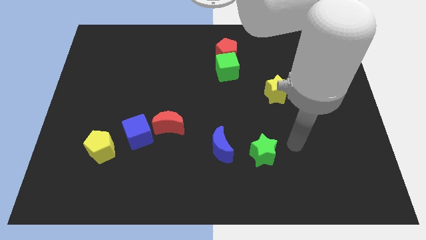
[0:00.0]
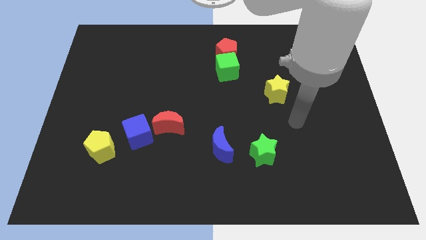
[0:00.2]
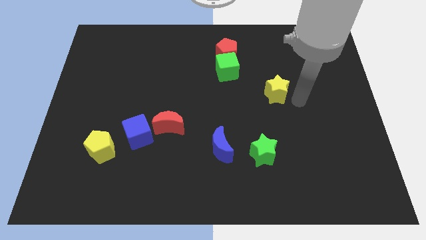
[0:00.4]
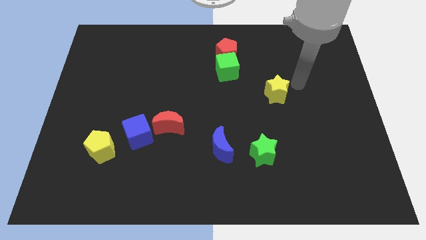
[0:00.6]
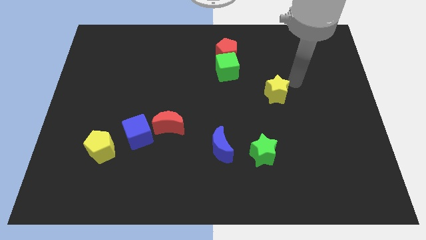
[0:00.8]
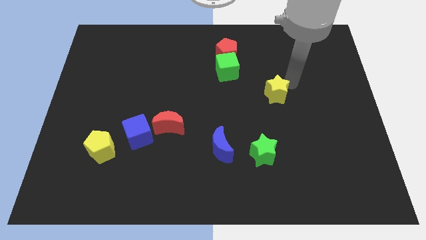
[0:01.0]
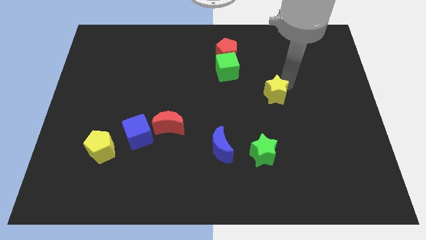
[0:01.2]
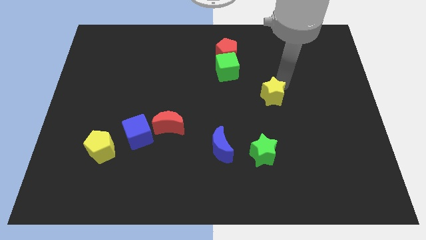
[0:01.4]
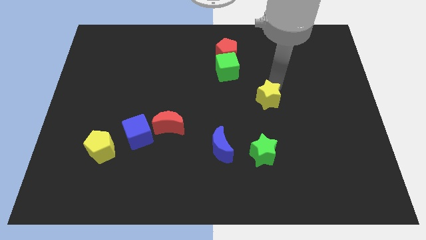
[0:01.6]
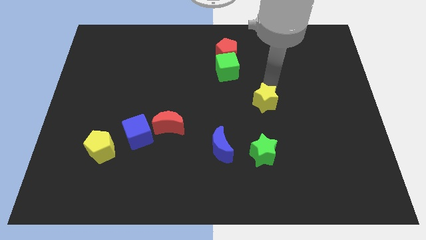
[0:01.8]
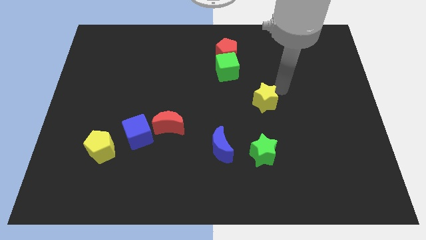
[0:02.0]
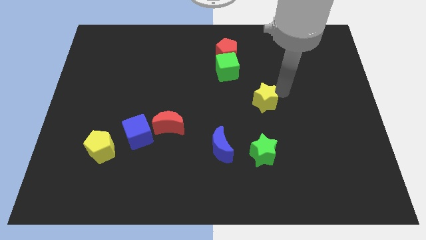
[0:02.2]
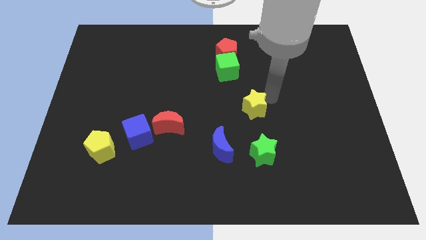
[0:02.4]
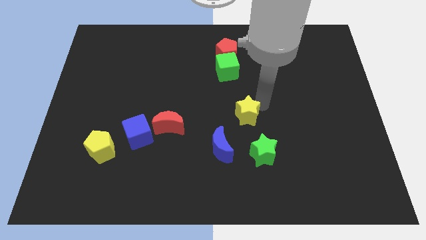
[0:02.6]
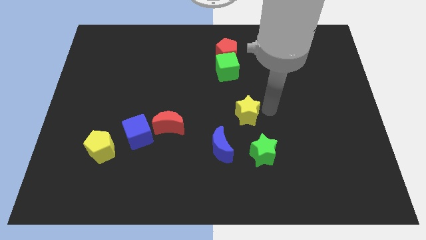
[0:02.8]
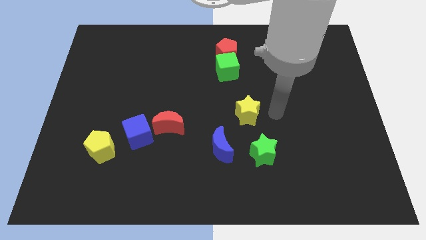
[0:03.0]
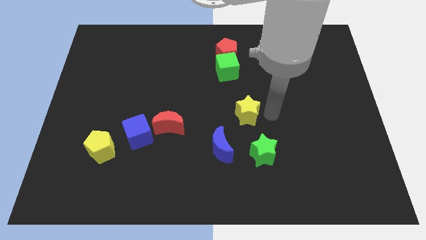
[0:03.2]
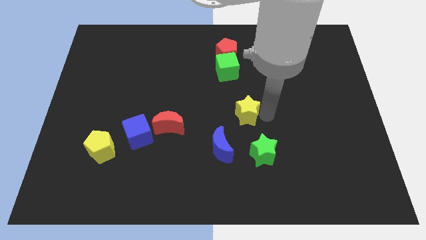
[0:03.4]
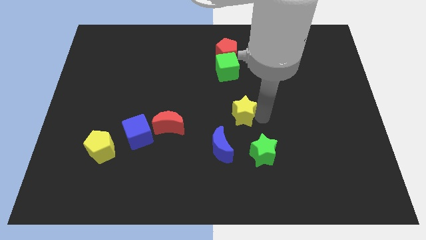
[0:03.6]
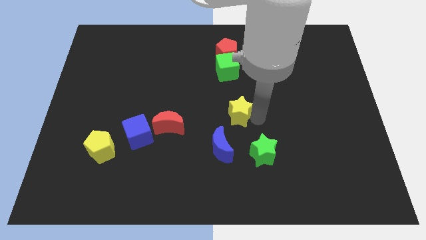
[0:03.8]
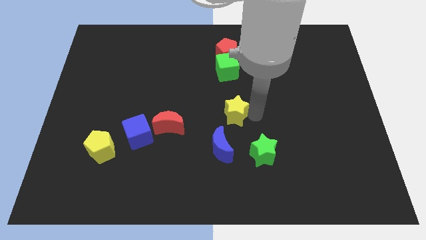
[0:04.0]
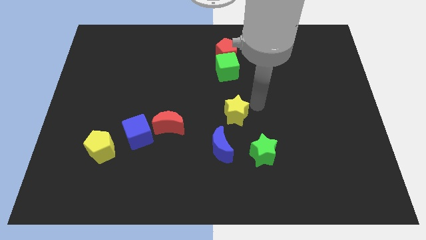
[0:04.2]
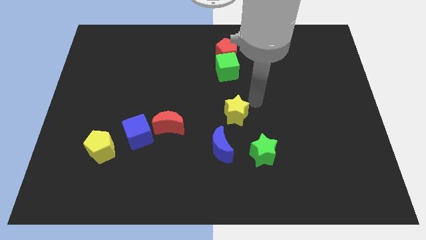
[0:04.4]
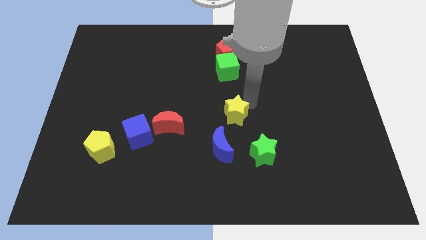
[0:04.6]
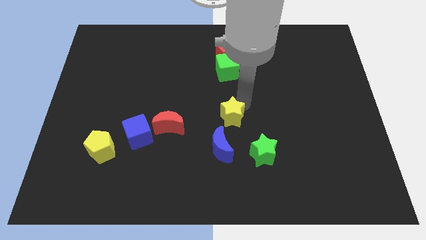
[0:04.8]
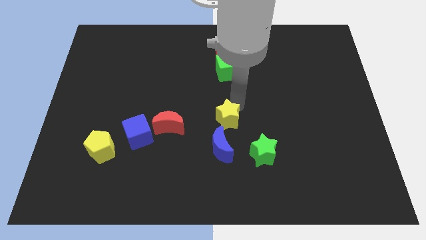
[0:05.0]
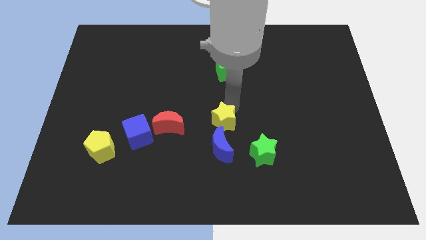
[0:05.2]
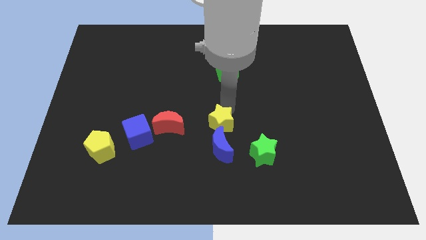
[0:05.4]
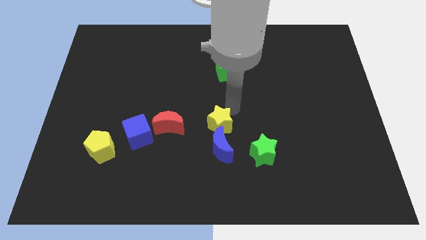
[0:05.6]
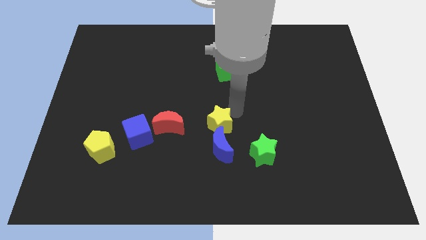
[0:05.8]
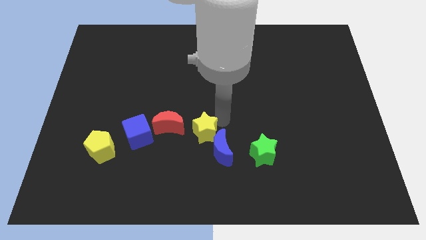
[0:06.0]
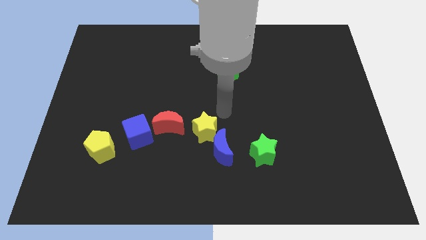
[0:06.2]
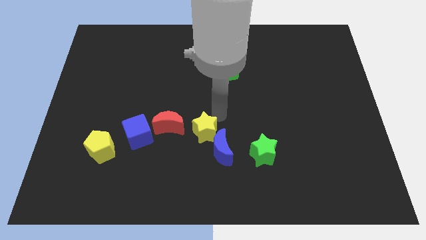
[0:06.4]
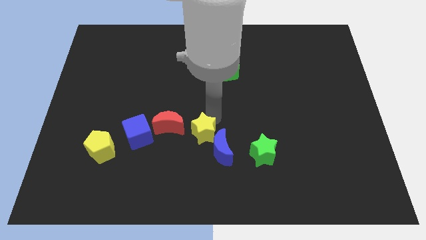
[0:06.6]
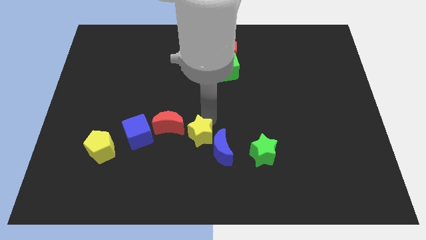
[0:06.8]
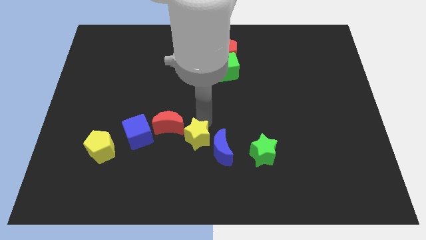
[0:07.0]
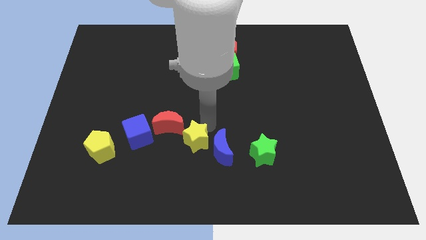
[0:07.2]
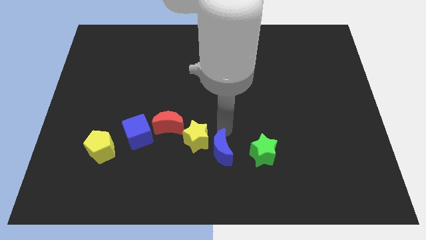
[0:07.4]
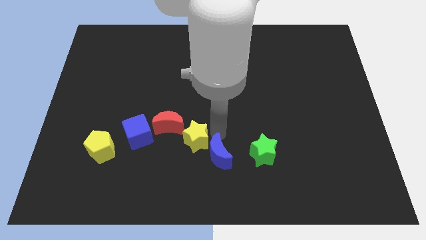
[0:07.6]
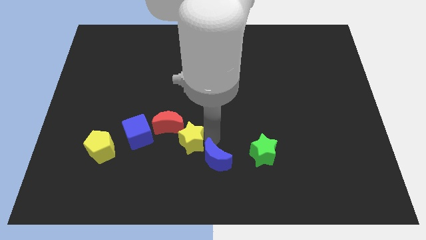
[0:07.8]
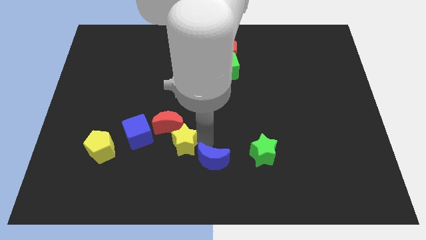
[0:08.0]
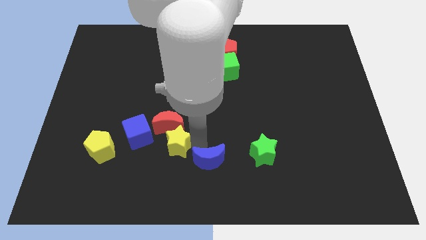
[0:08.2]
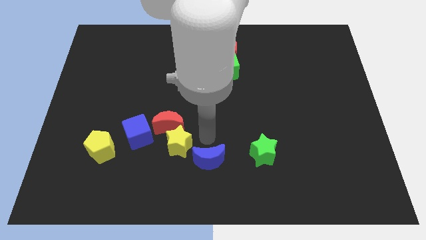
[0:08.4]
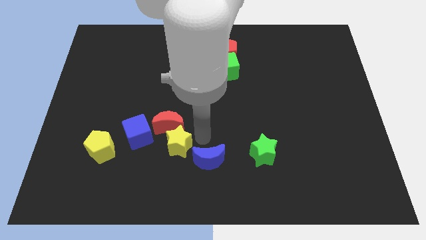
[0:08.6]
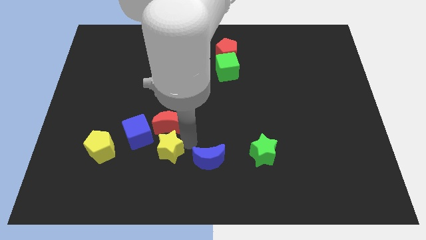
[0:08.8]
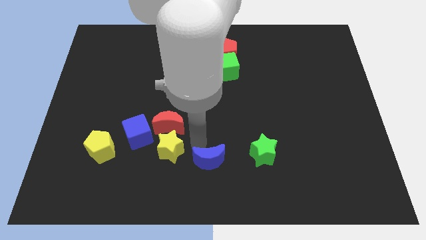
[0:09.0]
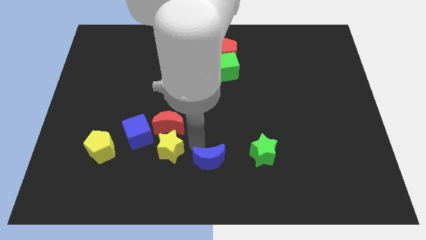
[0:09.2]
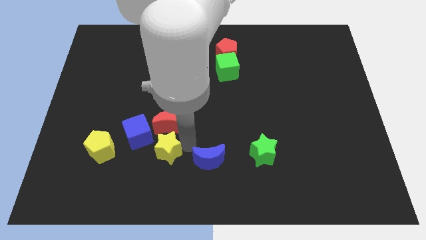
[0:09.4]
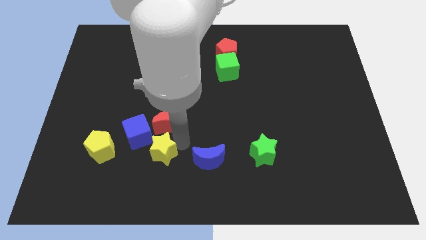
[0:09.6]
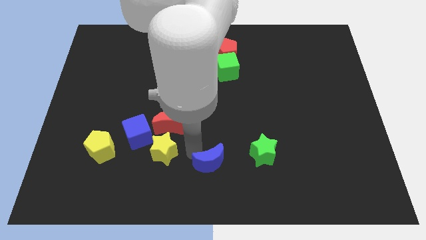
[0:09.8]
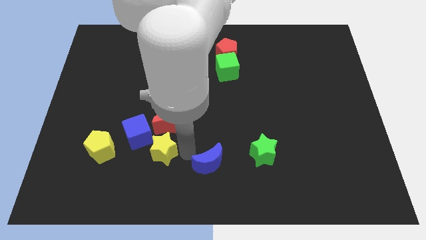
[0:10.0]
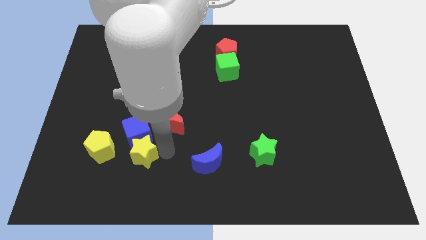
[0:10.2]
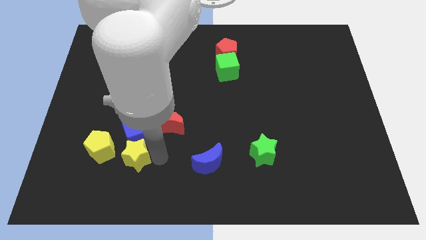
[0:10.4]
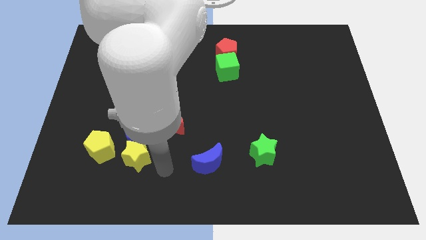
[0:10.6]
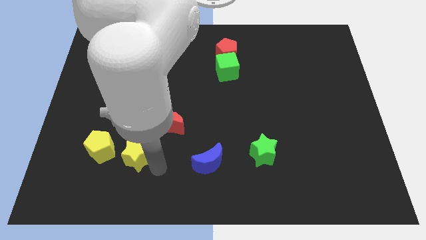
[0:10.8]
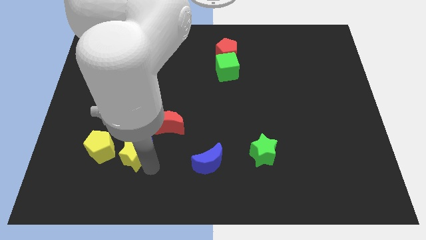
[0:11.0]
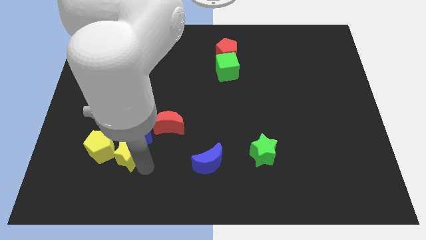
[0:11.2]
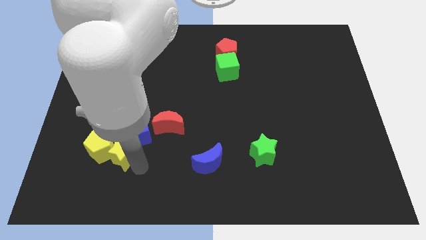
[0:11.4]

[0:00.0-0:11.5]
put the yellow star next to the yellow pentagon

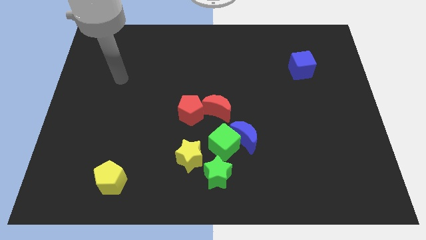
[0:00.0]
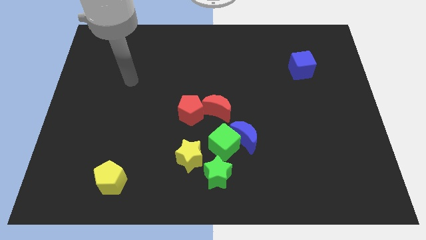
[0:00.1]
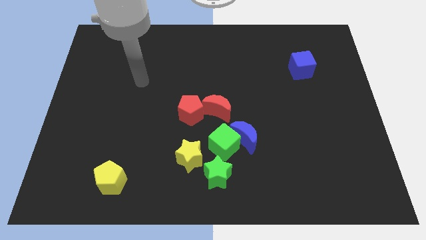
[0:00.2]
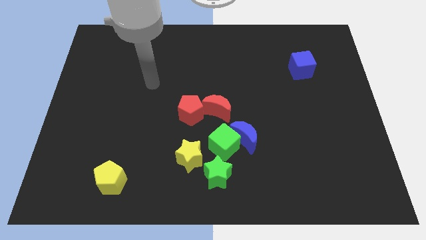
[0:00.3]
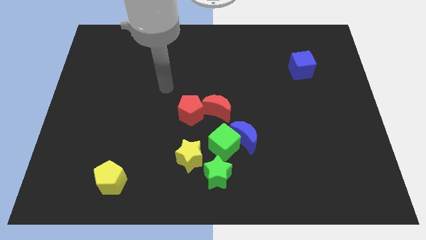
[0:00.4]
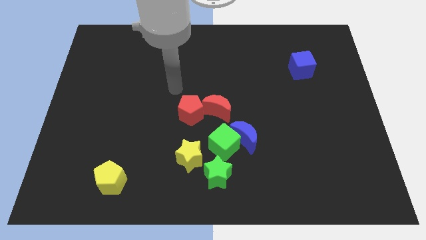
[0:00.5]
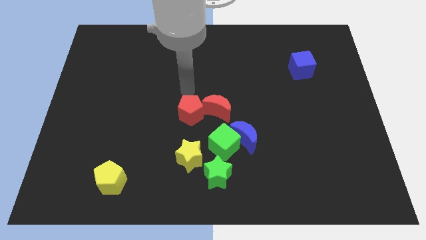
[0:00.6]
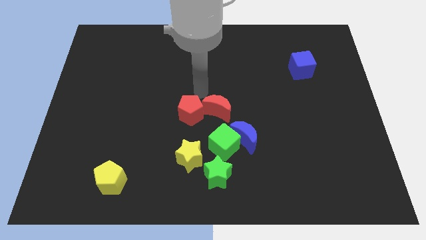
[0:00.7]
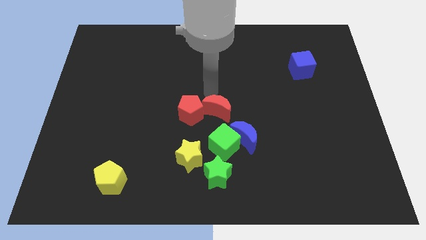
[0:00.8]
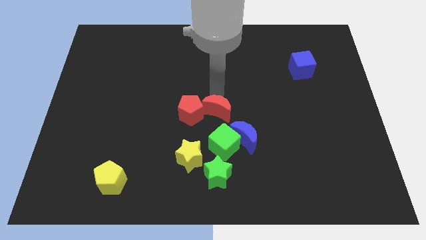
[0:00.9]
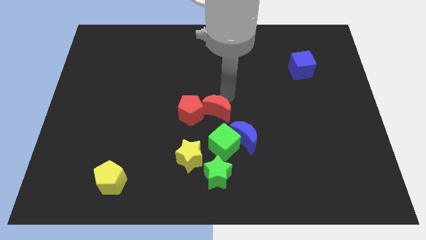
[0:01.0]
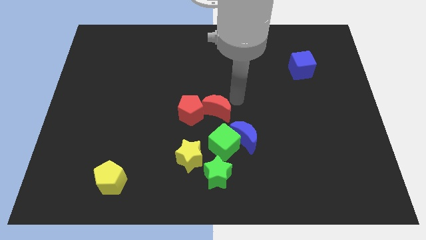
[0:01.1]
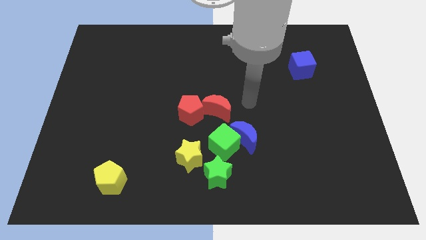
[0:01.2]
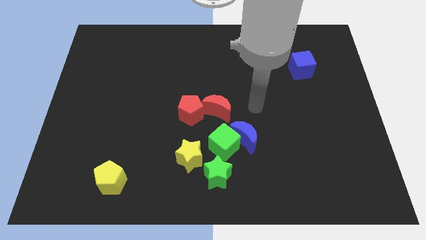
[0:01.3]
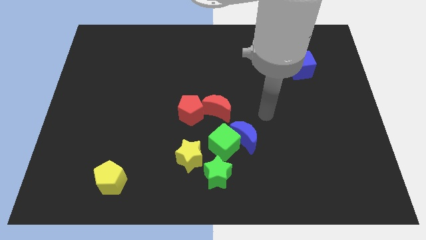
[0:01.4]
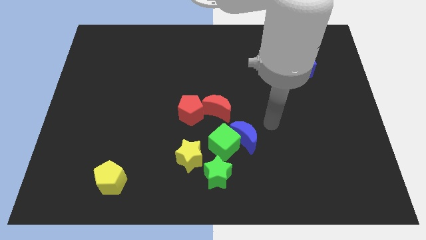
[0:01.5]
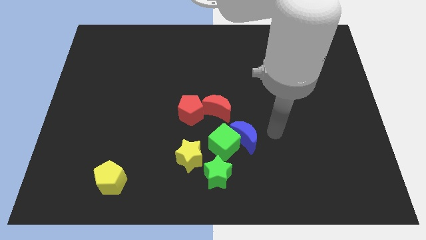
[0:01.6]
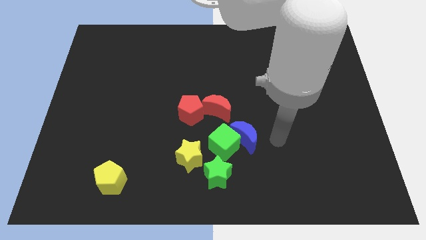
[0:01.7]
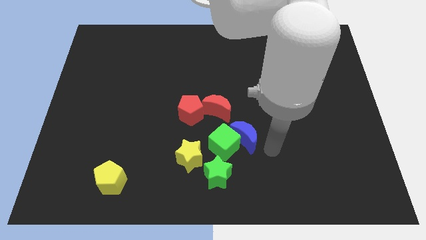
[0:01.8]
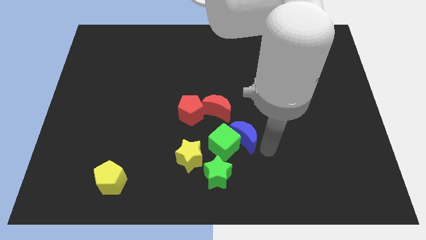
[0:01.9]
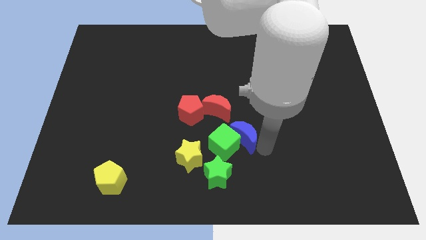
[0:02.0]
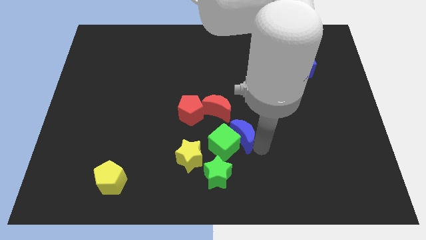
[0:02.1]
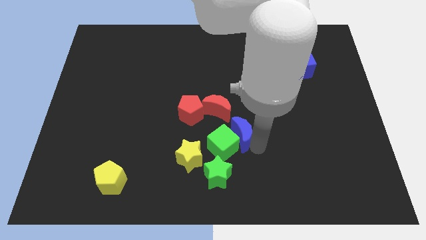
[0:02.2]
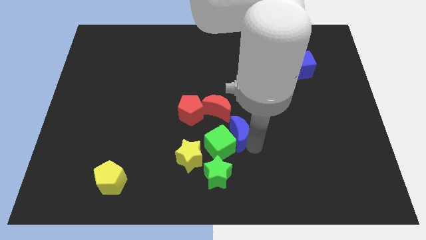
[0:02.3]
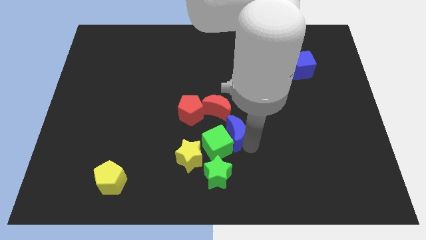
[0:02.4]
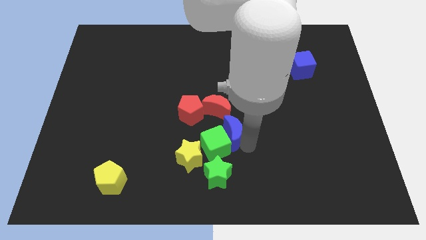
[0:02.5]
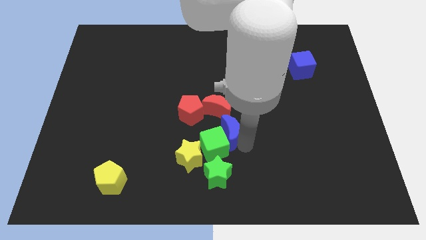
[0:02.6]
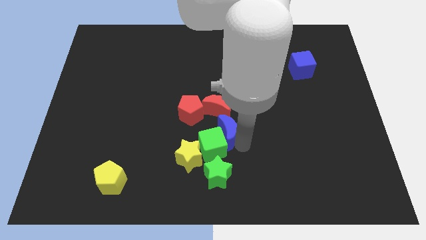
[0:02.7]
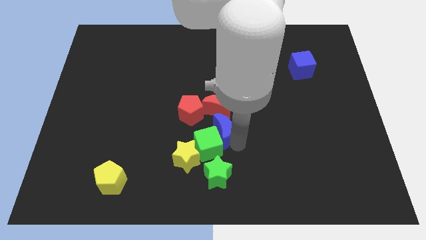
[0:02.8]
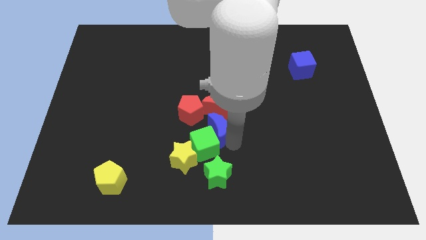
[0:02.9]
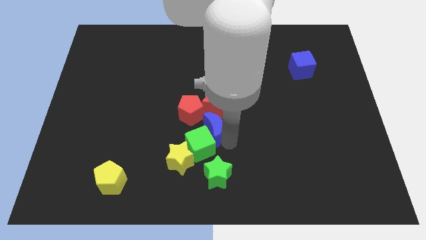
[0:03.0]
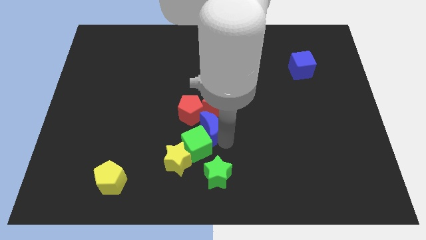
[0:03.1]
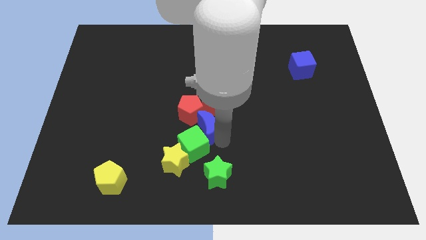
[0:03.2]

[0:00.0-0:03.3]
put the blue moon close to the red pentagon
